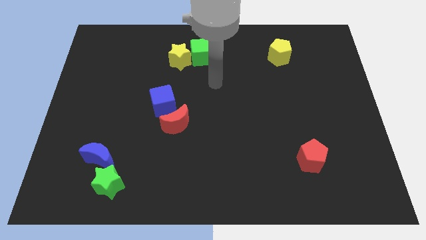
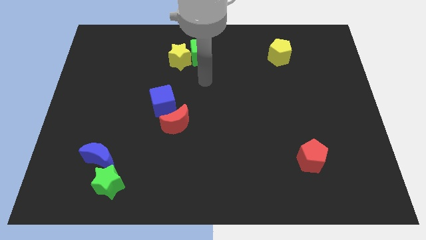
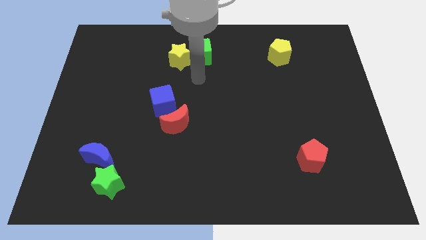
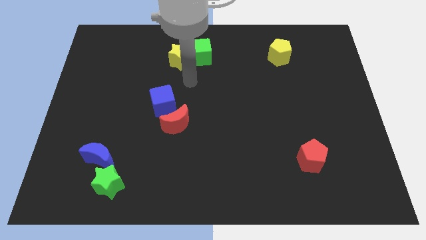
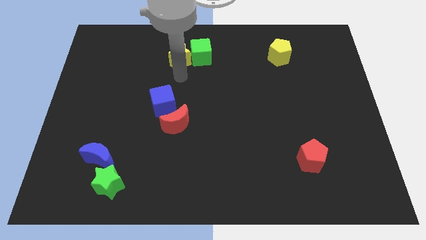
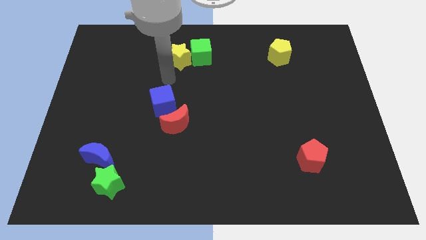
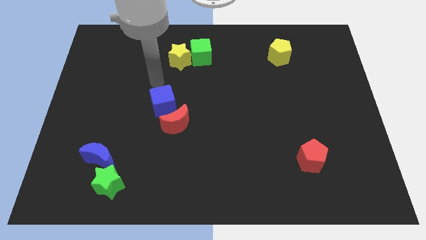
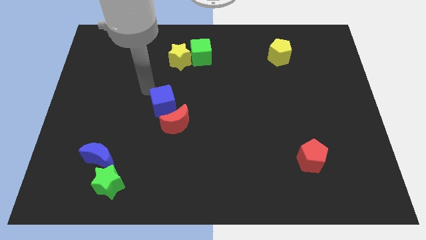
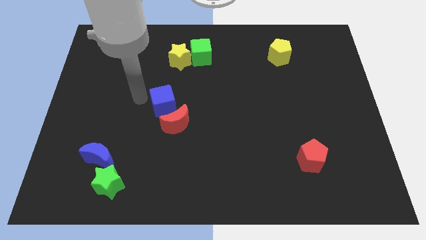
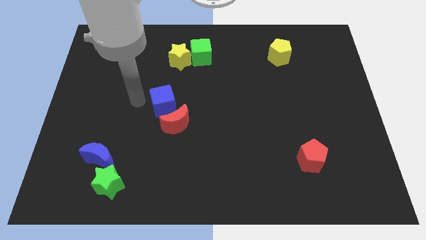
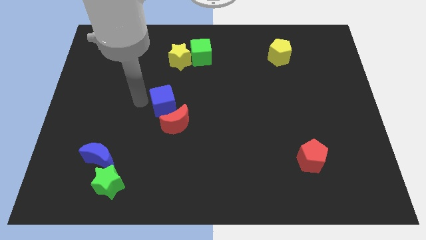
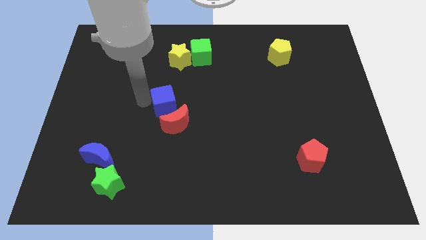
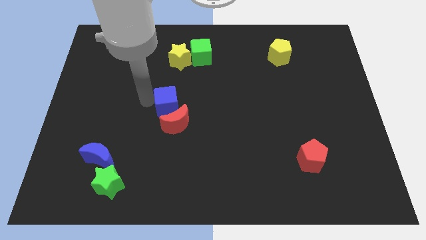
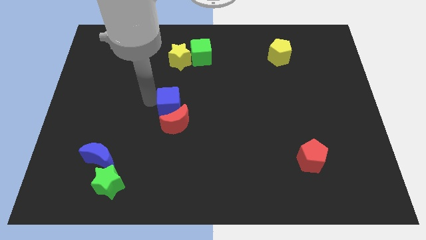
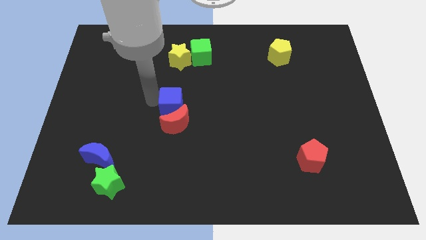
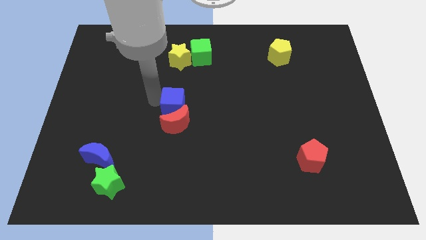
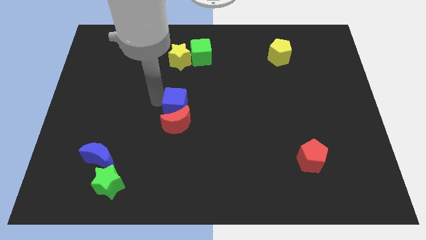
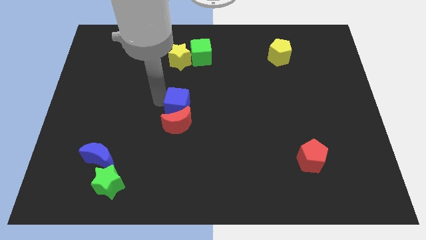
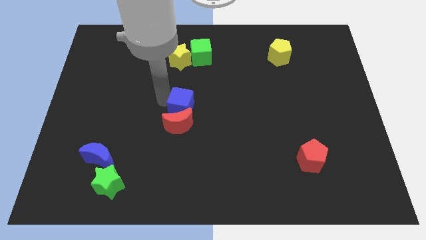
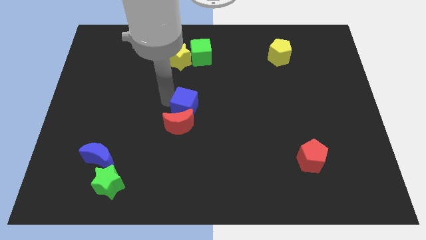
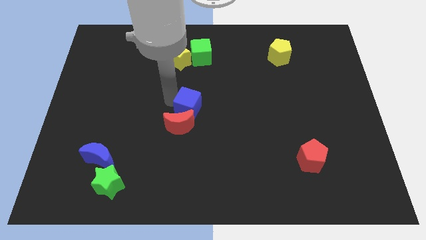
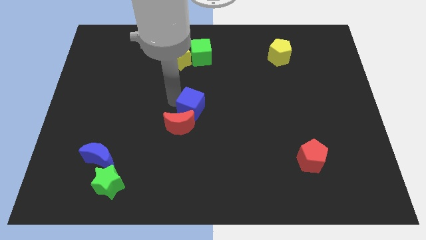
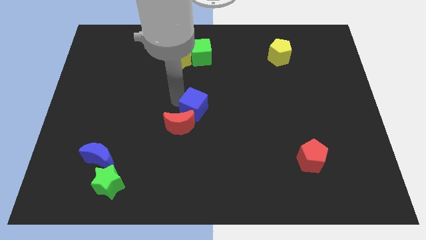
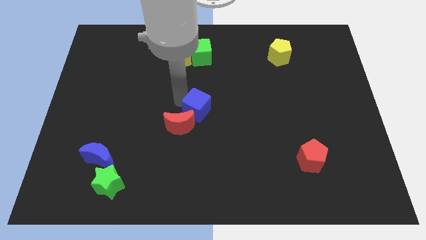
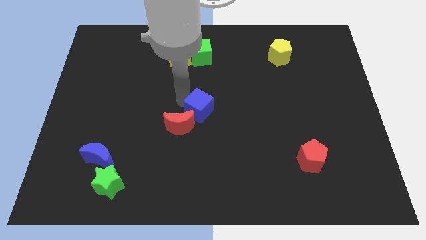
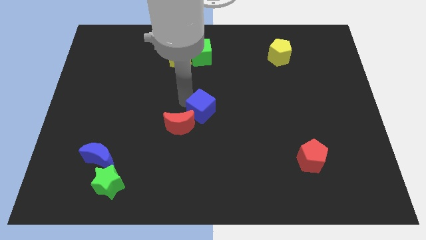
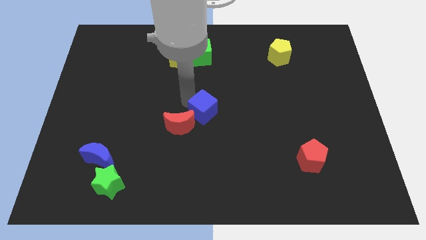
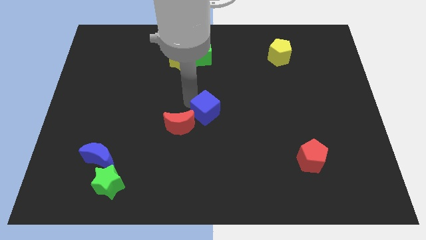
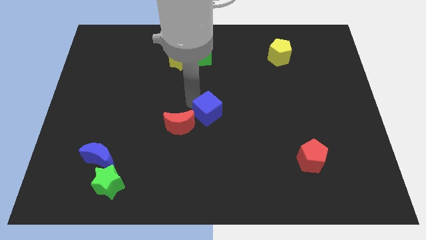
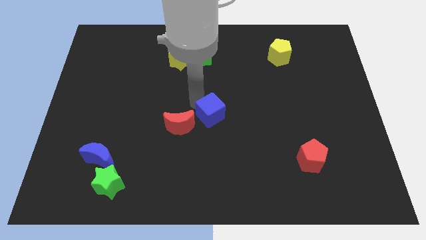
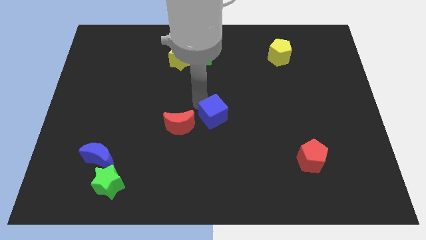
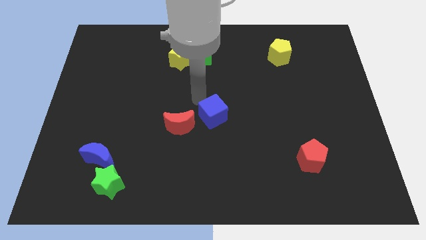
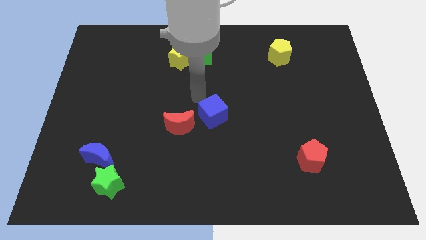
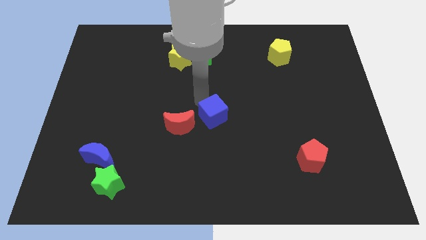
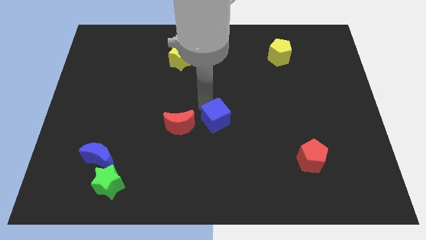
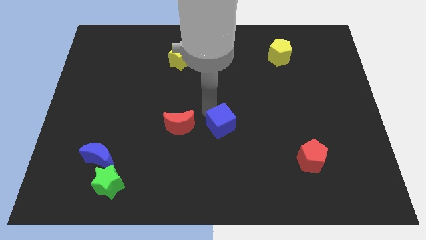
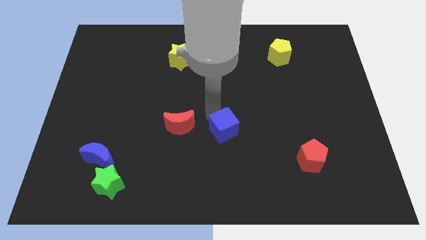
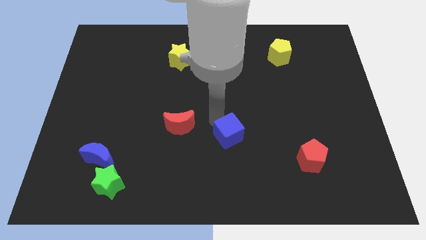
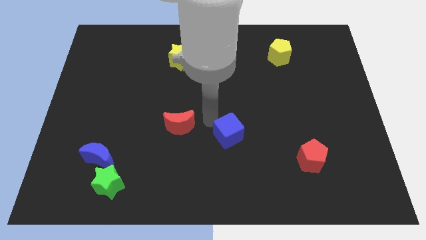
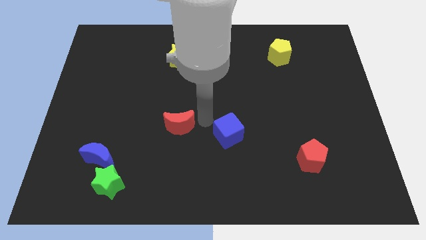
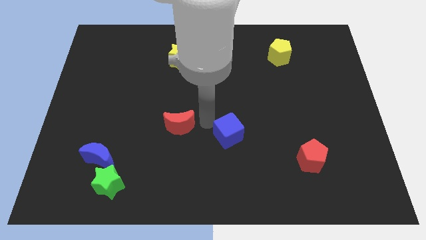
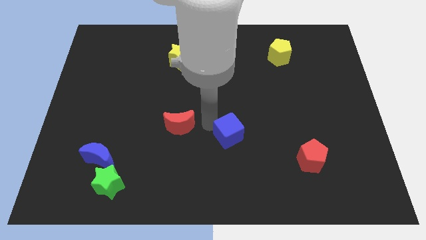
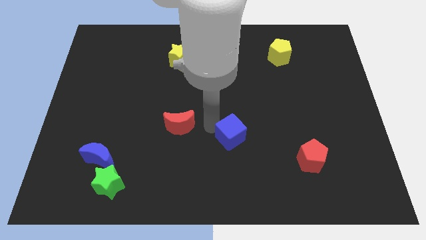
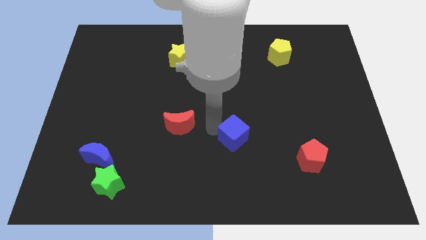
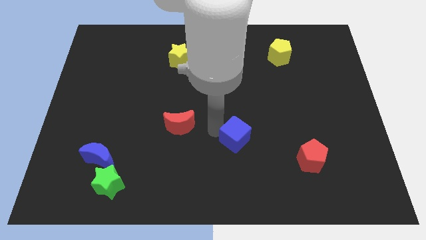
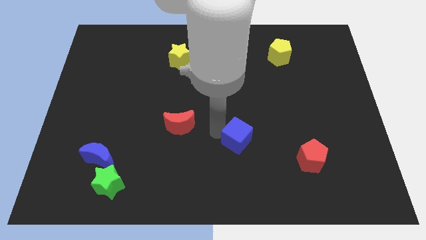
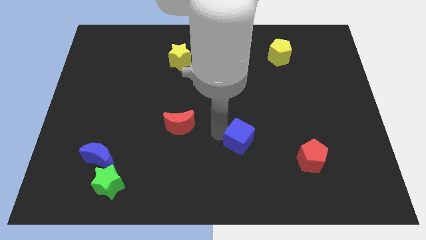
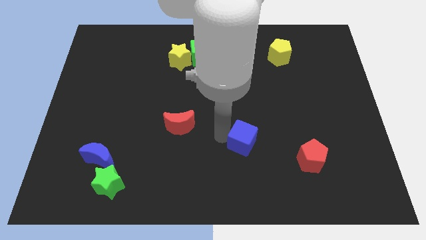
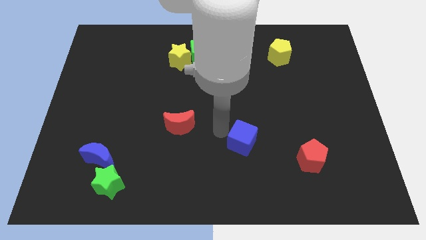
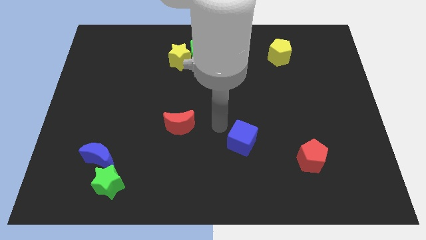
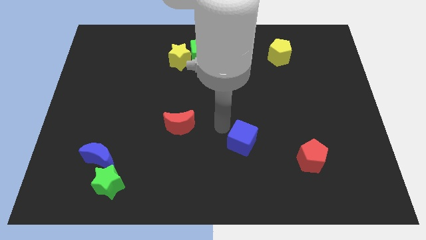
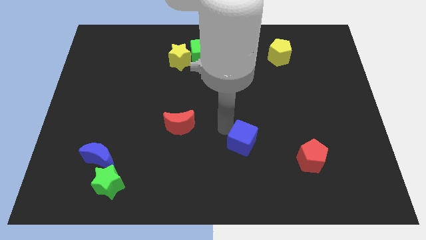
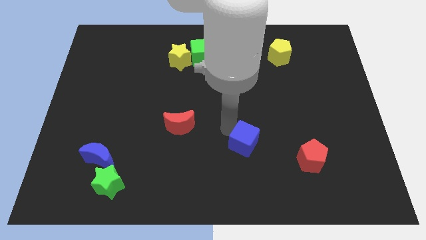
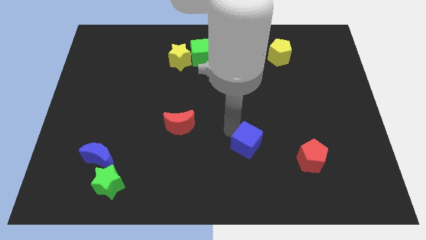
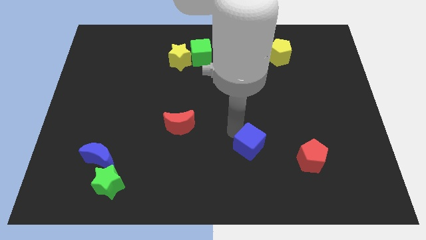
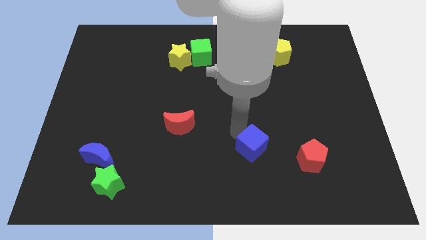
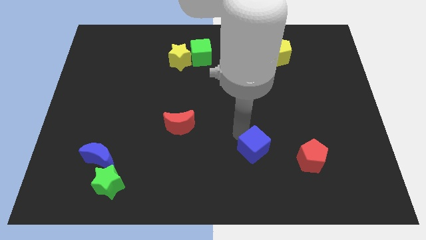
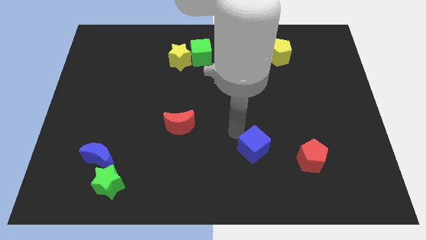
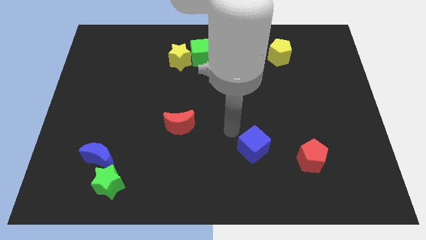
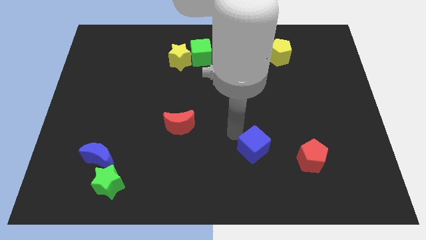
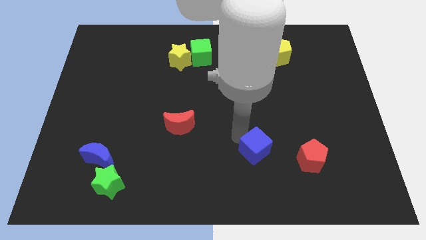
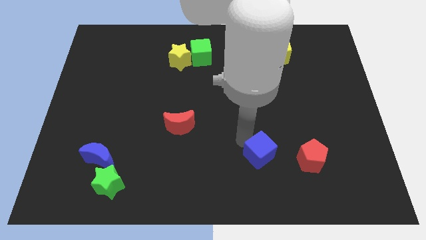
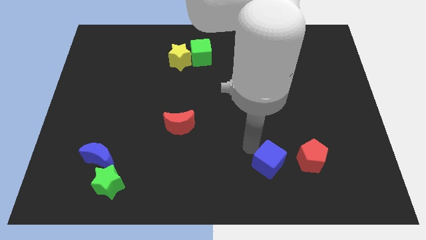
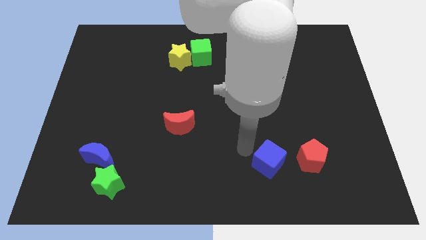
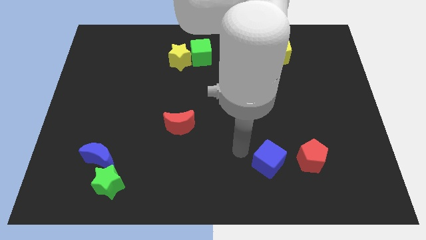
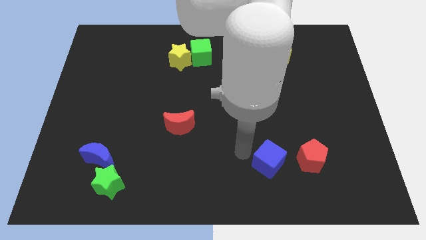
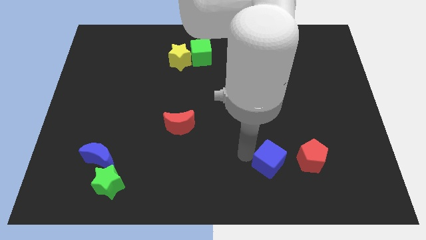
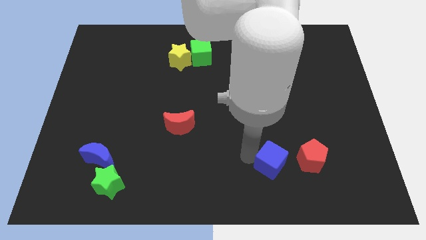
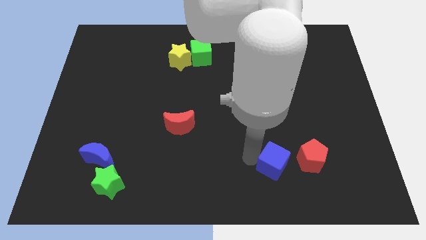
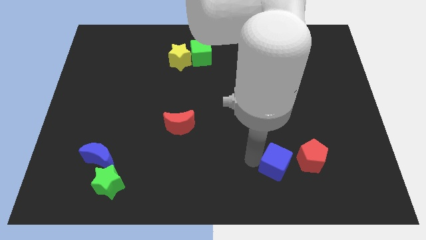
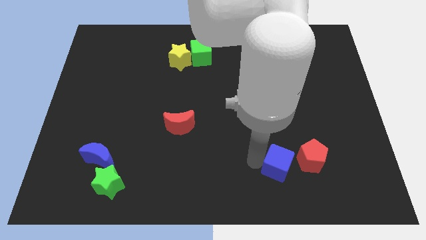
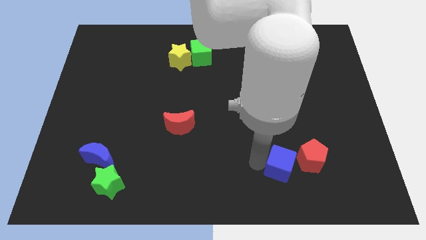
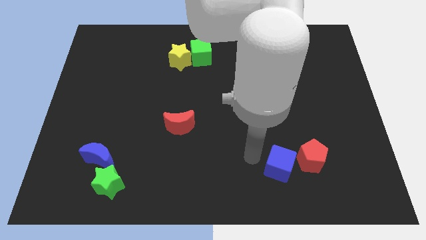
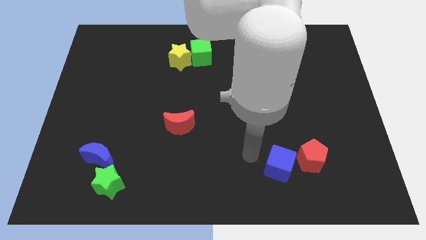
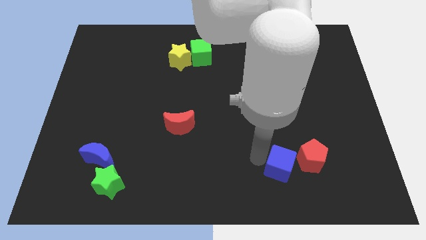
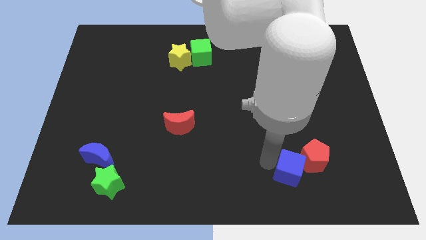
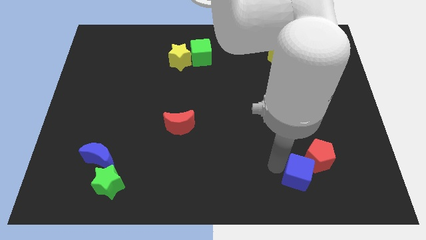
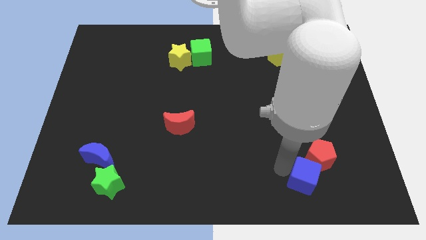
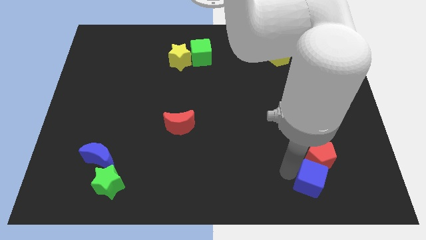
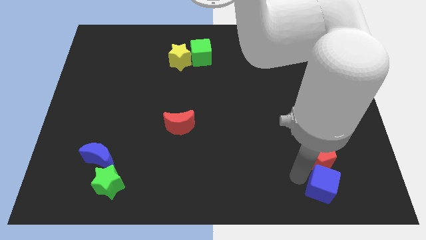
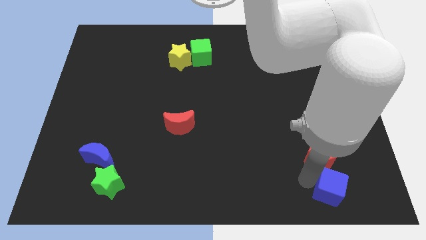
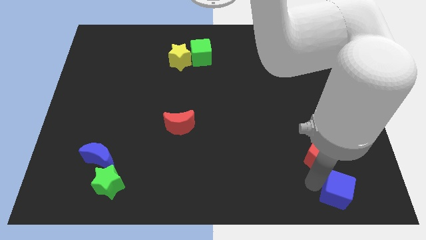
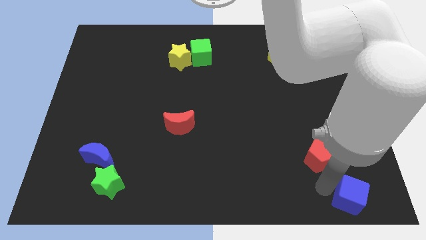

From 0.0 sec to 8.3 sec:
move the blue cube to the bottom right of the board
